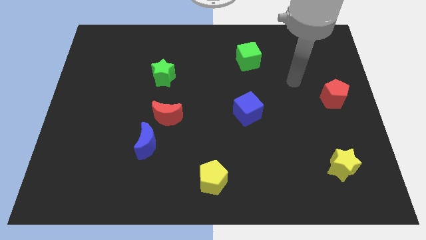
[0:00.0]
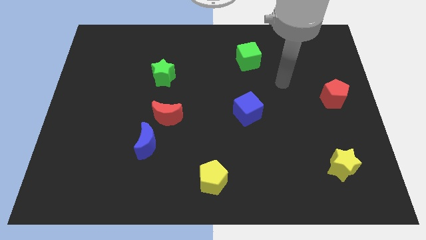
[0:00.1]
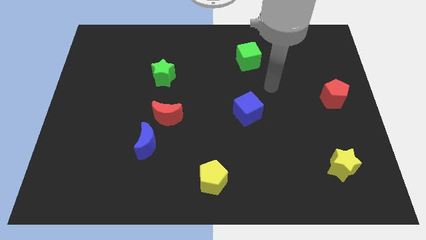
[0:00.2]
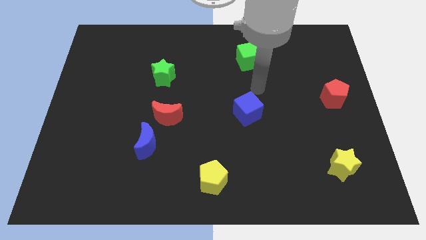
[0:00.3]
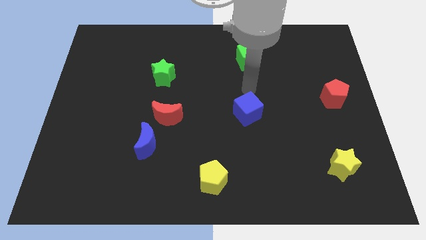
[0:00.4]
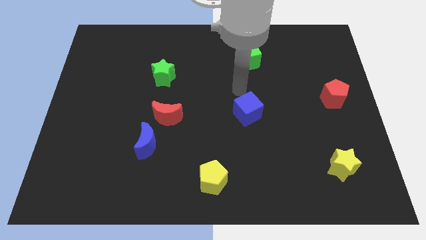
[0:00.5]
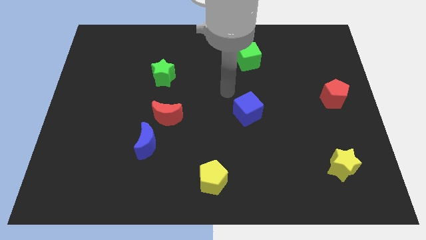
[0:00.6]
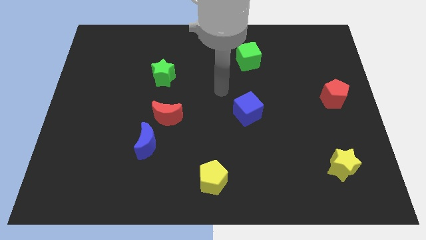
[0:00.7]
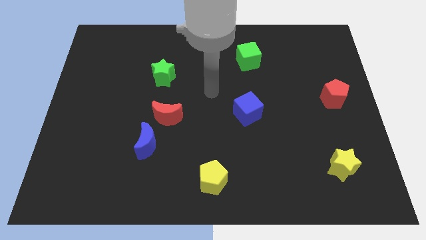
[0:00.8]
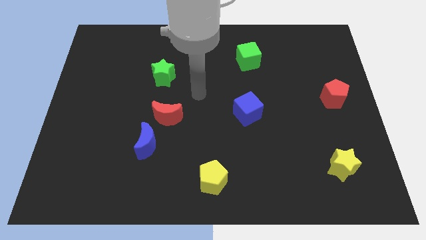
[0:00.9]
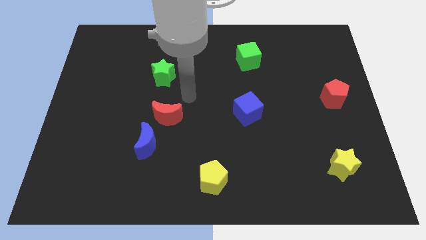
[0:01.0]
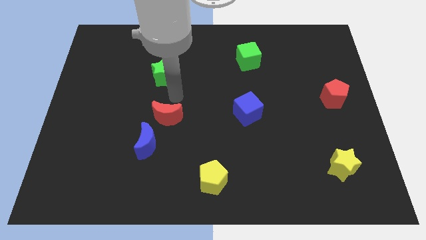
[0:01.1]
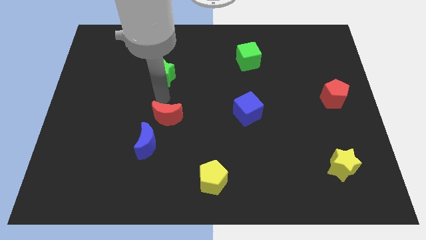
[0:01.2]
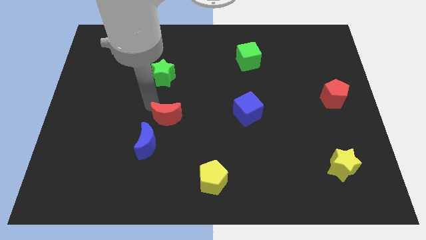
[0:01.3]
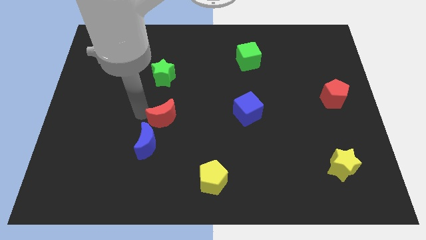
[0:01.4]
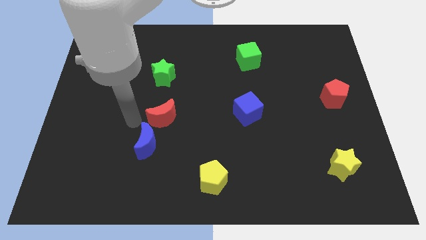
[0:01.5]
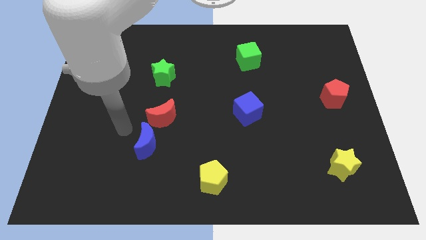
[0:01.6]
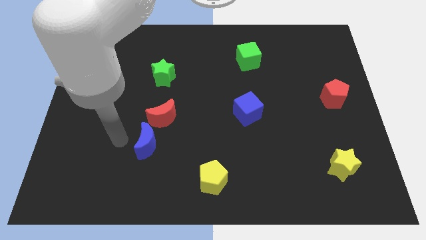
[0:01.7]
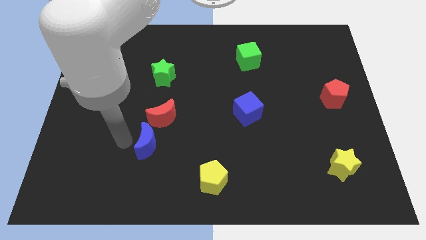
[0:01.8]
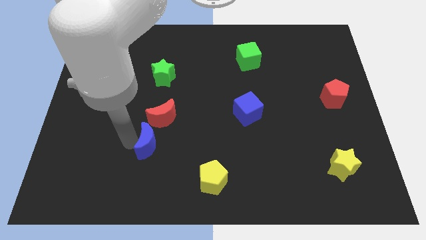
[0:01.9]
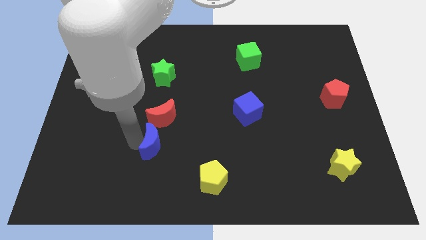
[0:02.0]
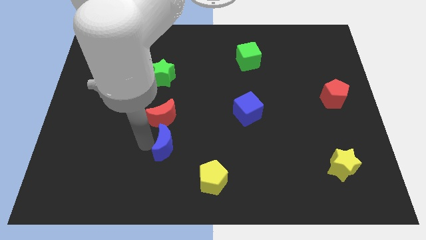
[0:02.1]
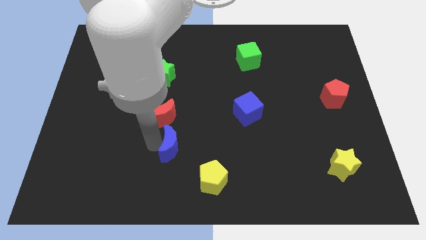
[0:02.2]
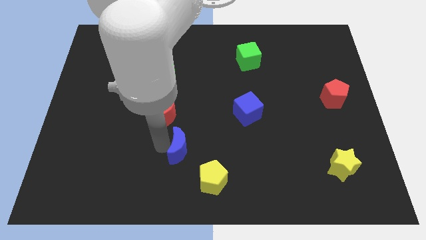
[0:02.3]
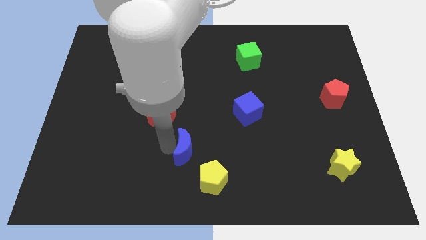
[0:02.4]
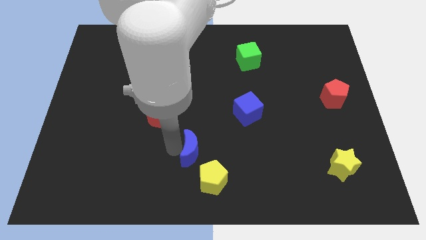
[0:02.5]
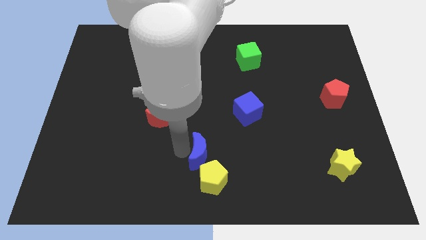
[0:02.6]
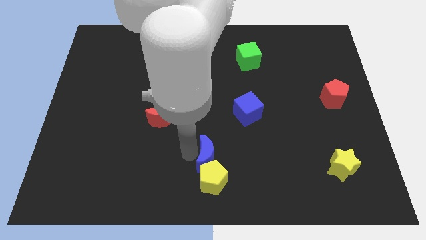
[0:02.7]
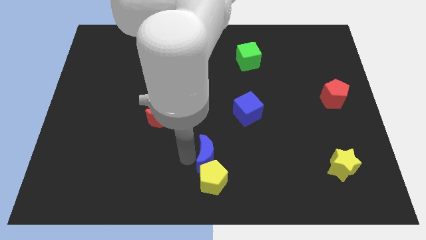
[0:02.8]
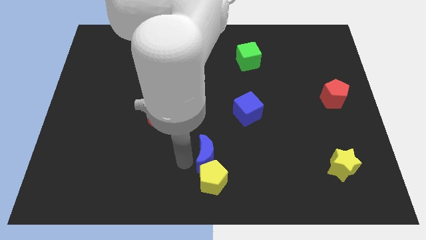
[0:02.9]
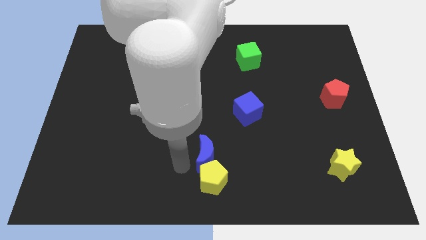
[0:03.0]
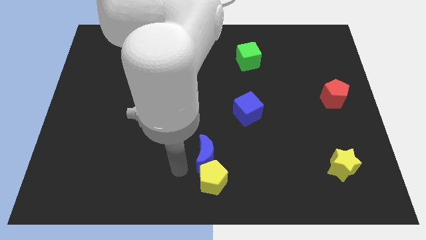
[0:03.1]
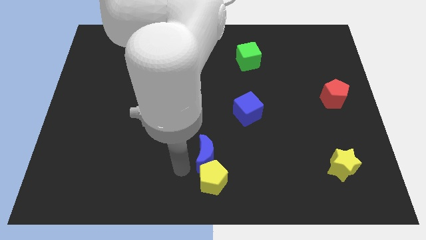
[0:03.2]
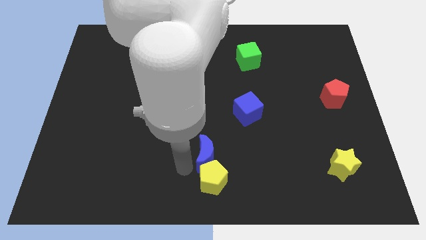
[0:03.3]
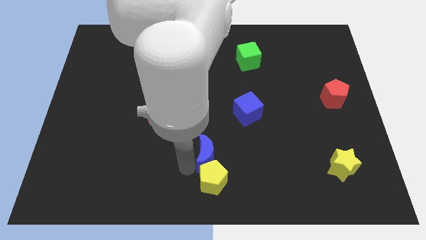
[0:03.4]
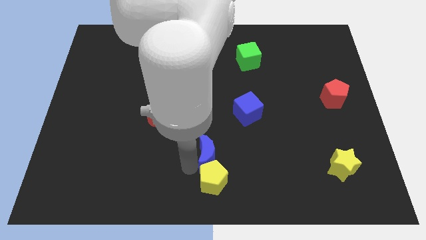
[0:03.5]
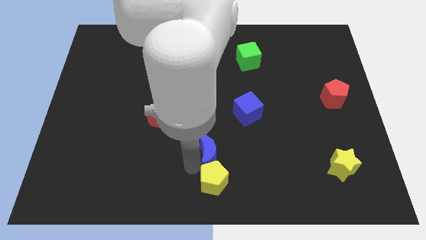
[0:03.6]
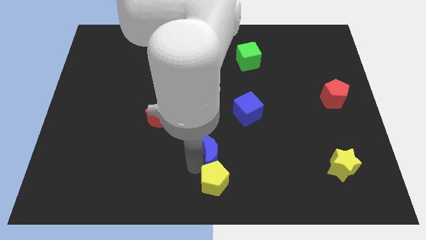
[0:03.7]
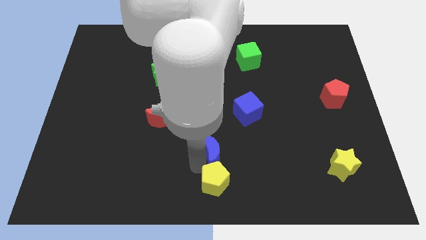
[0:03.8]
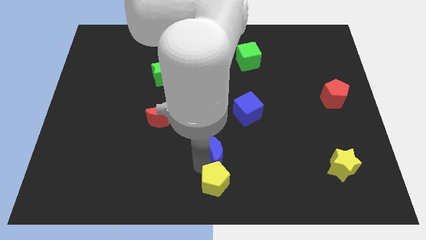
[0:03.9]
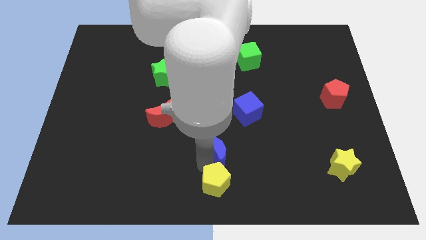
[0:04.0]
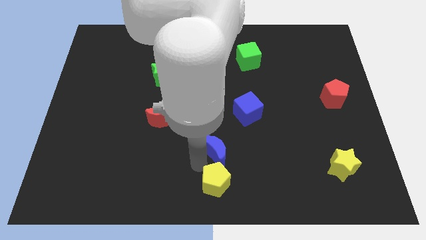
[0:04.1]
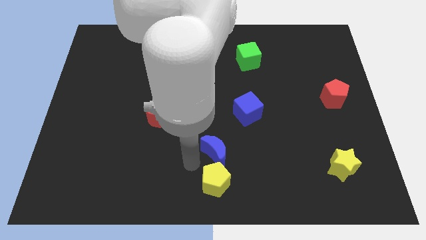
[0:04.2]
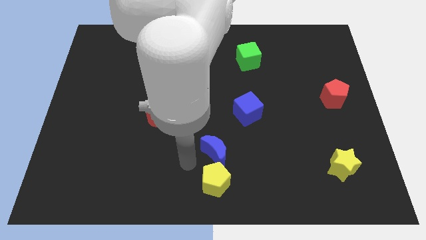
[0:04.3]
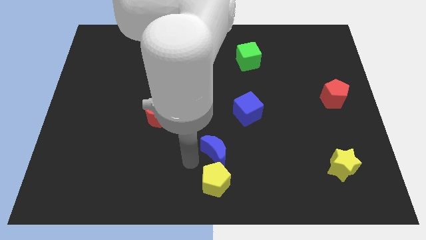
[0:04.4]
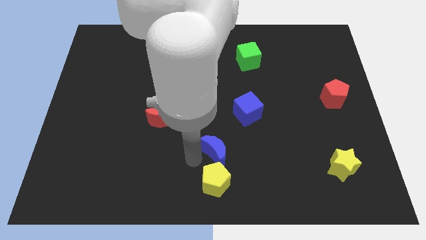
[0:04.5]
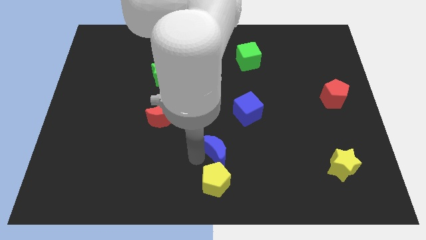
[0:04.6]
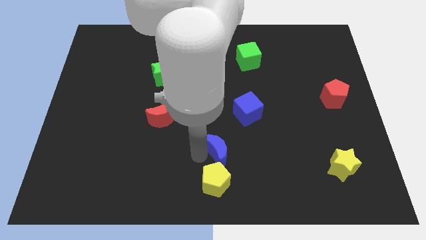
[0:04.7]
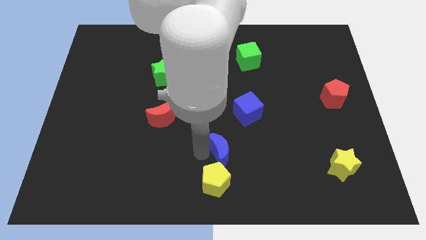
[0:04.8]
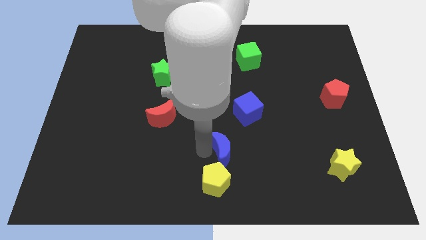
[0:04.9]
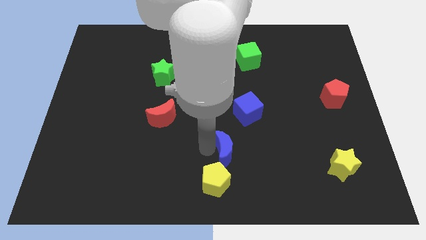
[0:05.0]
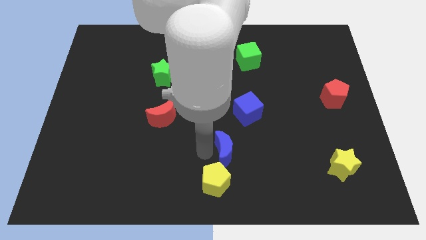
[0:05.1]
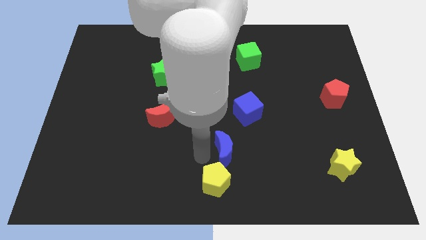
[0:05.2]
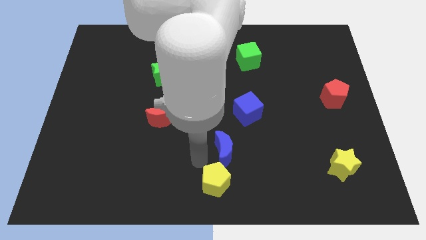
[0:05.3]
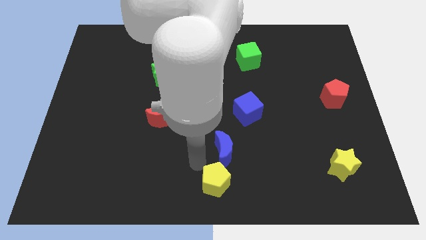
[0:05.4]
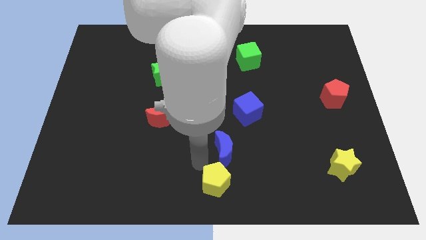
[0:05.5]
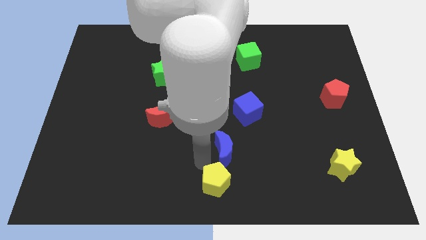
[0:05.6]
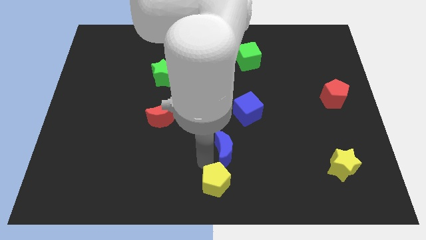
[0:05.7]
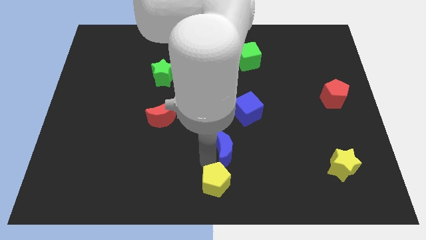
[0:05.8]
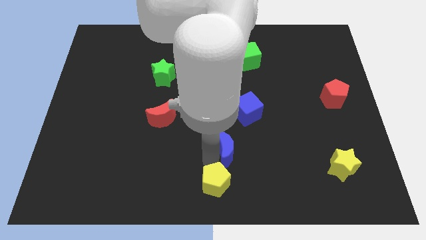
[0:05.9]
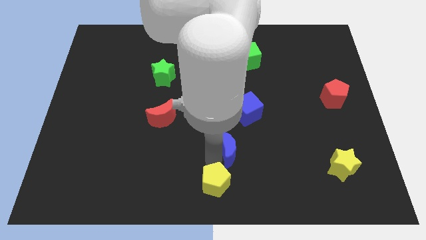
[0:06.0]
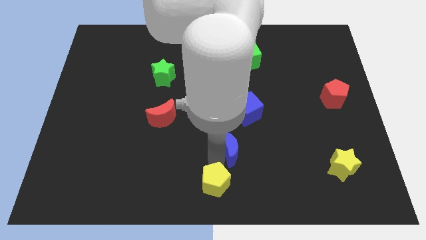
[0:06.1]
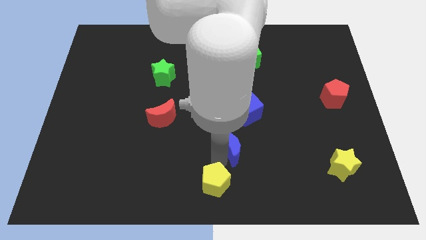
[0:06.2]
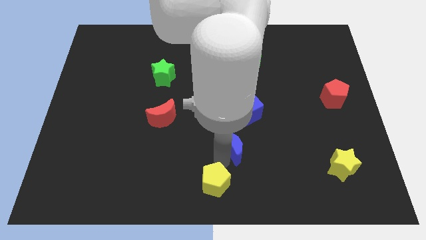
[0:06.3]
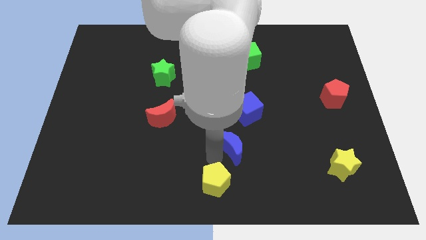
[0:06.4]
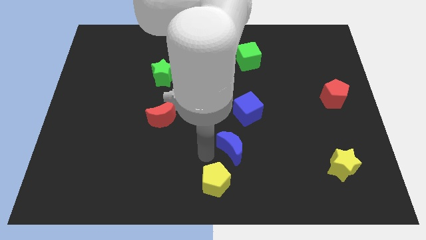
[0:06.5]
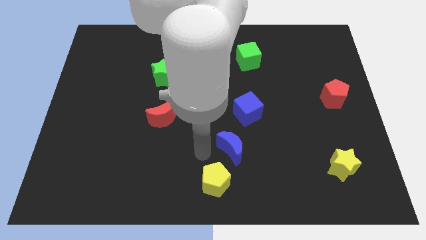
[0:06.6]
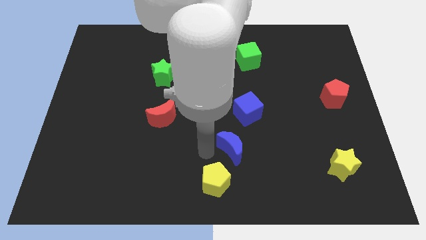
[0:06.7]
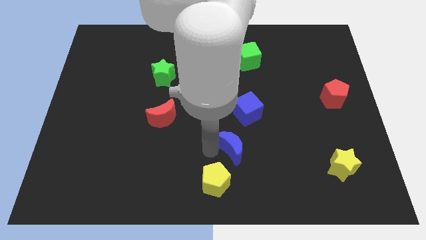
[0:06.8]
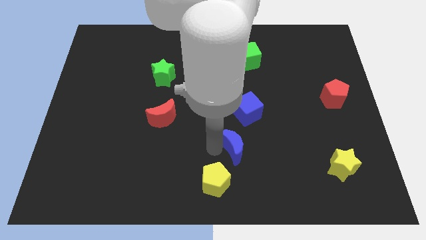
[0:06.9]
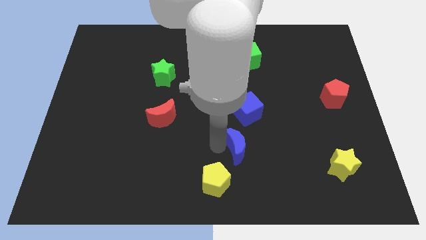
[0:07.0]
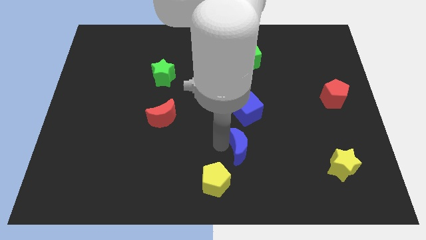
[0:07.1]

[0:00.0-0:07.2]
push the blue moon to the right

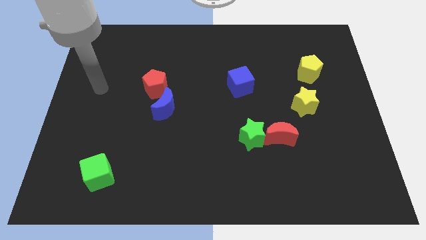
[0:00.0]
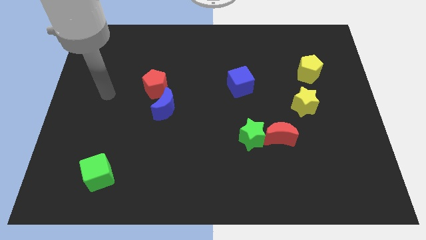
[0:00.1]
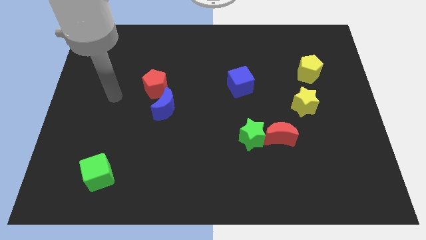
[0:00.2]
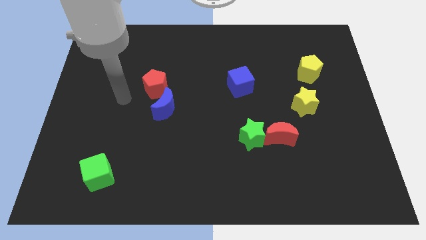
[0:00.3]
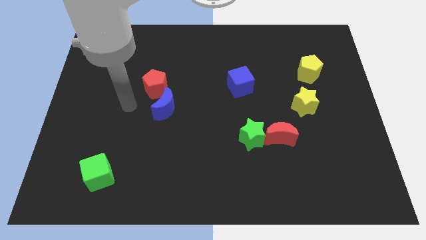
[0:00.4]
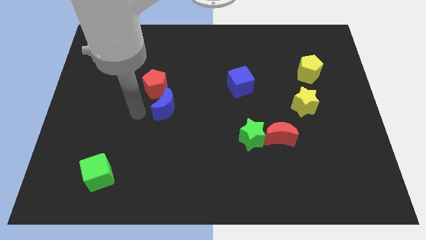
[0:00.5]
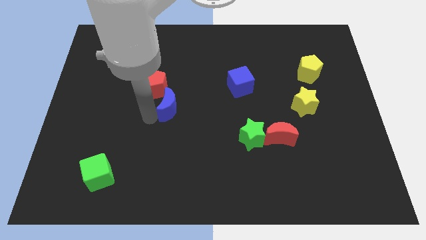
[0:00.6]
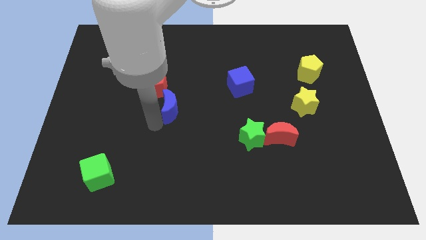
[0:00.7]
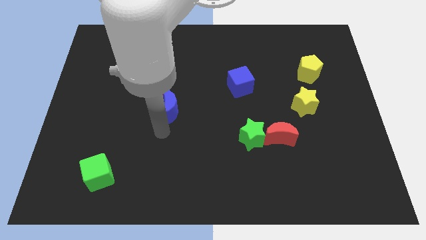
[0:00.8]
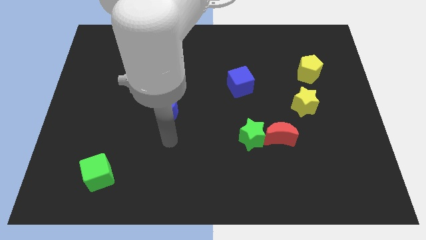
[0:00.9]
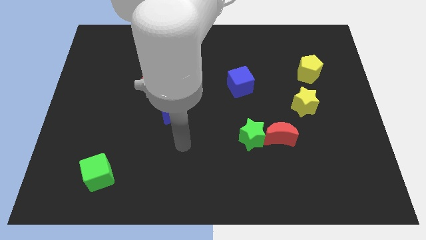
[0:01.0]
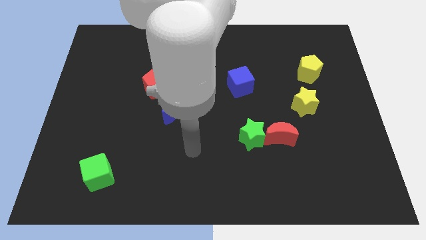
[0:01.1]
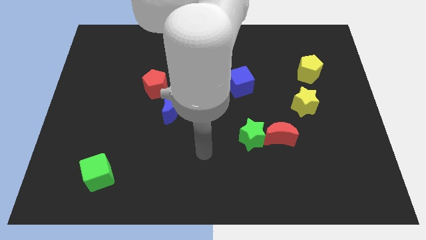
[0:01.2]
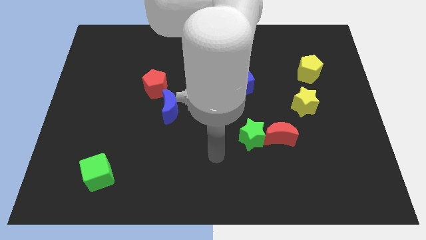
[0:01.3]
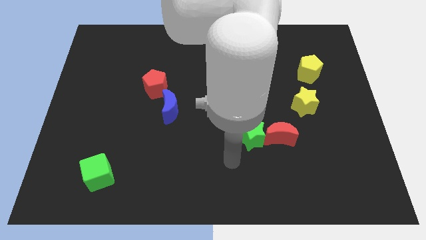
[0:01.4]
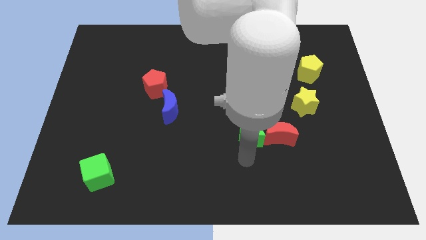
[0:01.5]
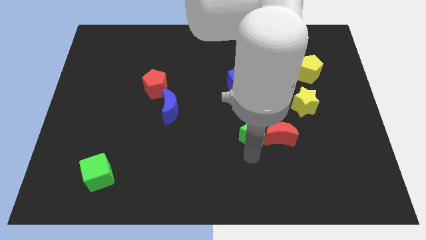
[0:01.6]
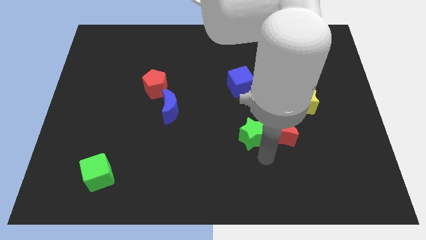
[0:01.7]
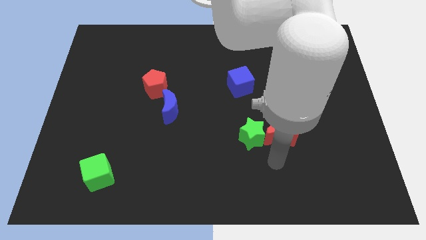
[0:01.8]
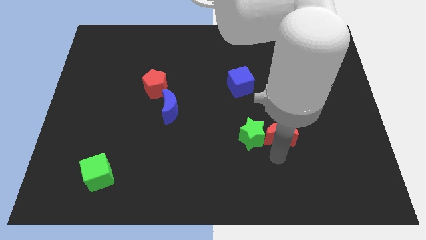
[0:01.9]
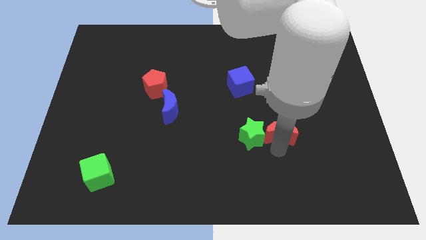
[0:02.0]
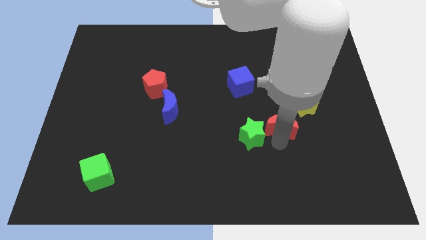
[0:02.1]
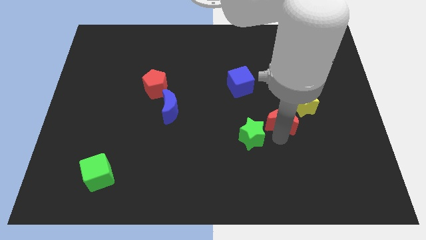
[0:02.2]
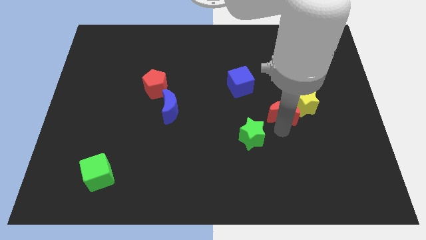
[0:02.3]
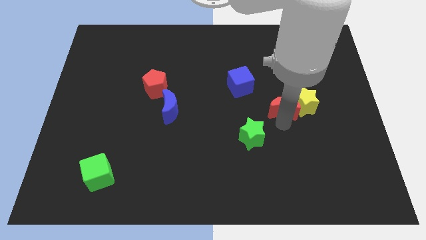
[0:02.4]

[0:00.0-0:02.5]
move the red moon slightly upwards
